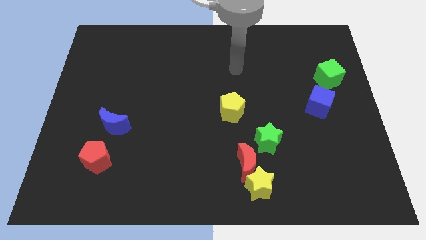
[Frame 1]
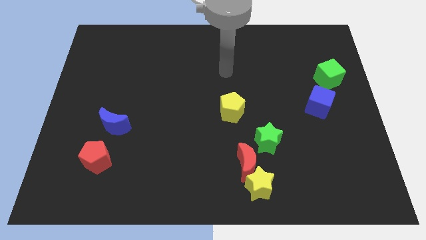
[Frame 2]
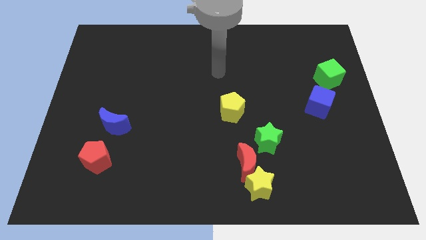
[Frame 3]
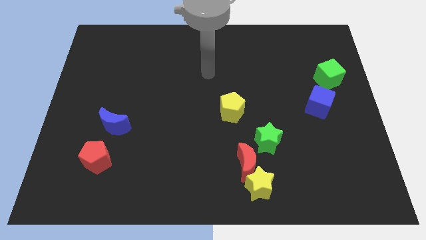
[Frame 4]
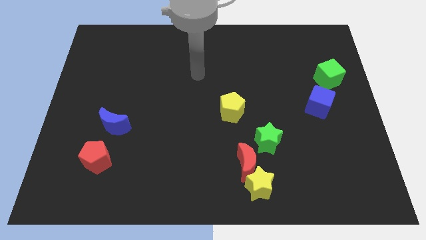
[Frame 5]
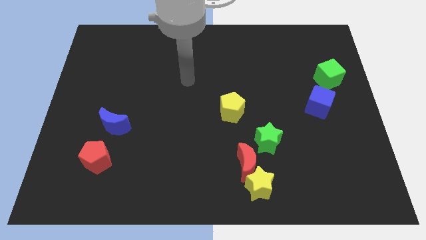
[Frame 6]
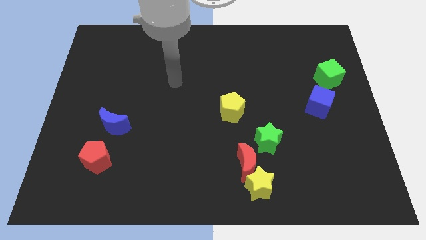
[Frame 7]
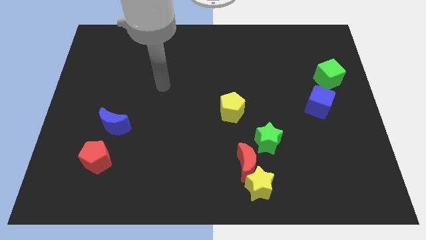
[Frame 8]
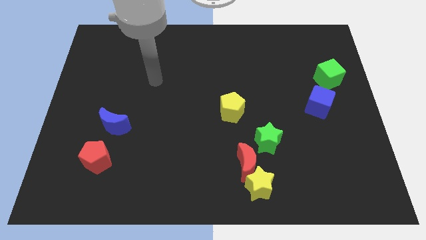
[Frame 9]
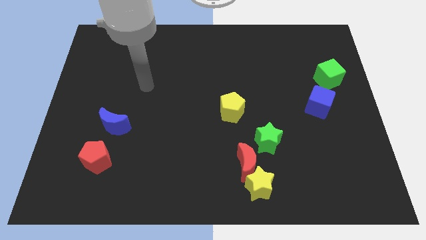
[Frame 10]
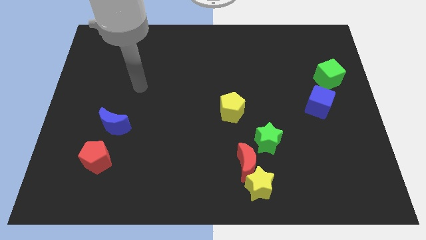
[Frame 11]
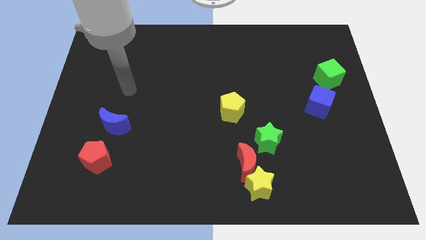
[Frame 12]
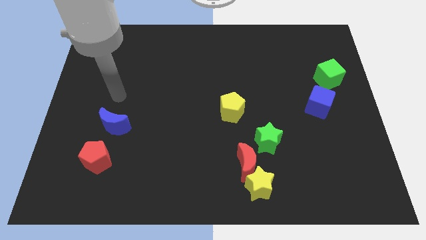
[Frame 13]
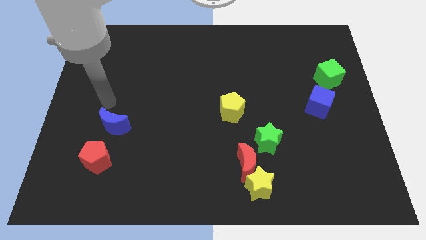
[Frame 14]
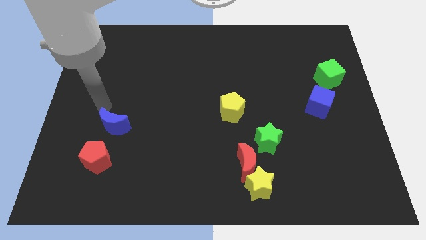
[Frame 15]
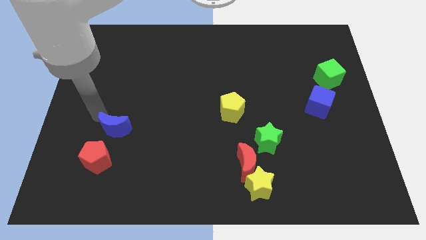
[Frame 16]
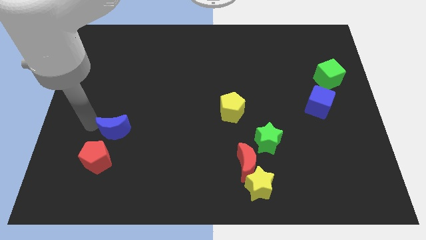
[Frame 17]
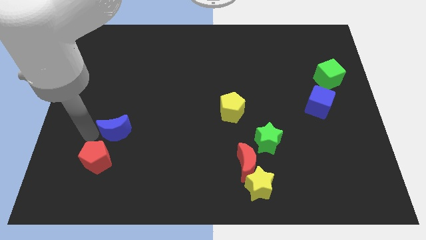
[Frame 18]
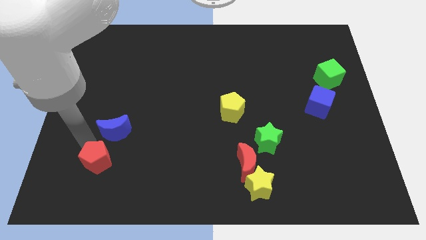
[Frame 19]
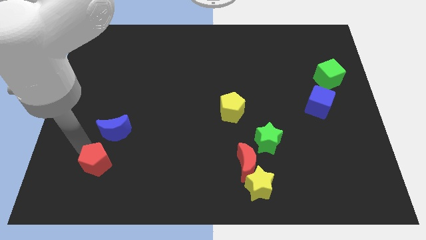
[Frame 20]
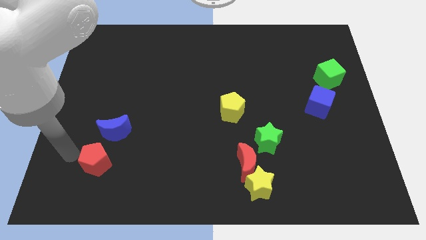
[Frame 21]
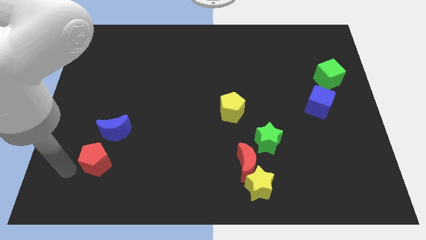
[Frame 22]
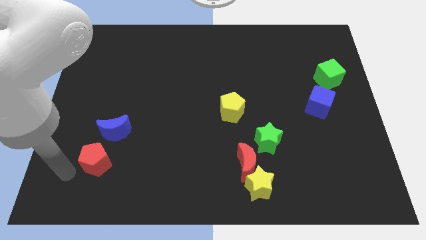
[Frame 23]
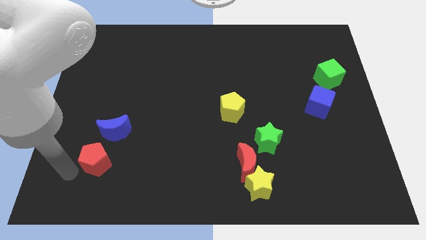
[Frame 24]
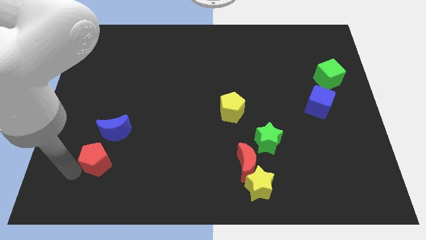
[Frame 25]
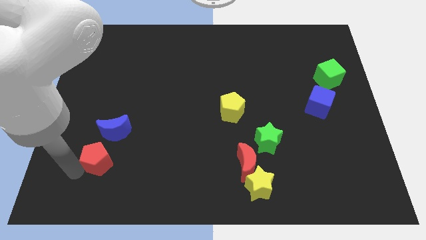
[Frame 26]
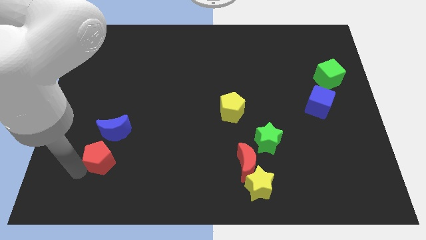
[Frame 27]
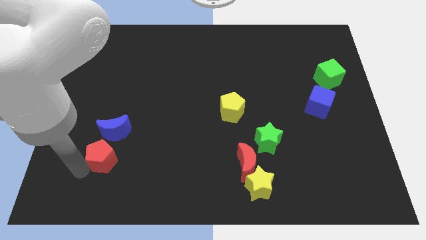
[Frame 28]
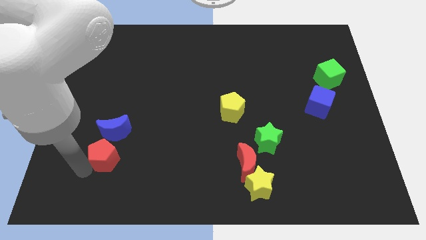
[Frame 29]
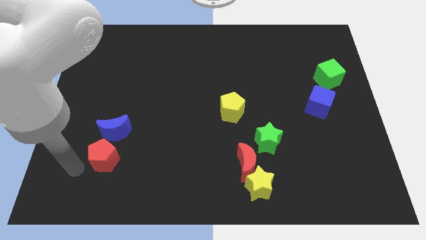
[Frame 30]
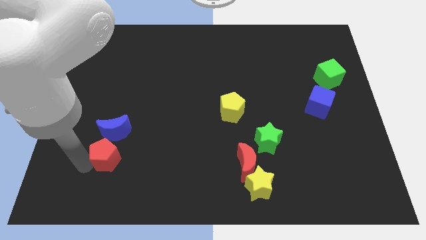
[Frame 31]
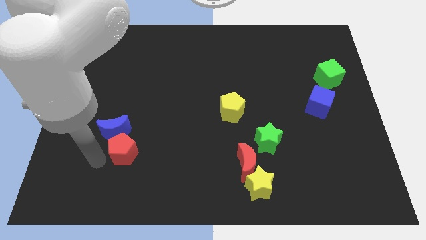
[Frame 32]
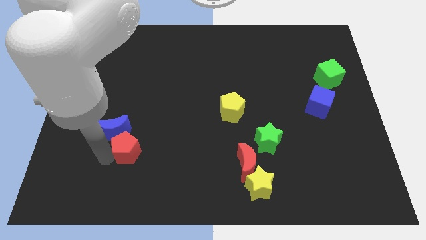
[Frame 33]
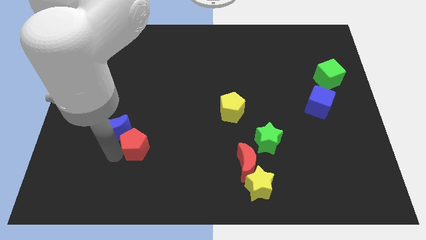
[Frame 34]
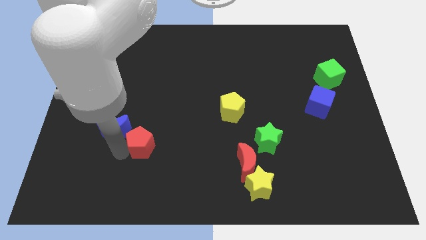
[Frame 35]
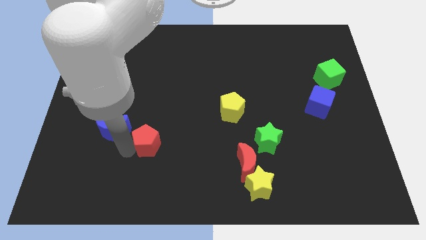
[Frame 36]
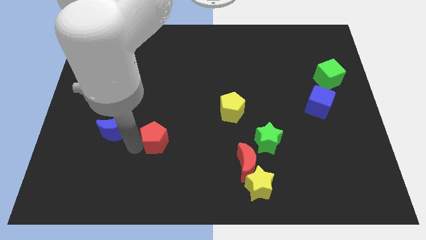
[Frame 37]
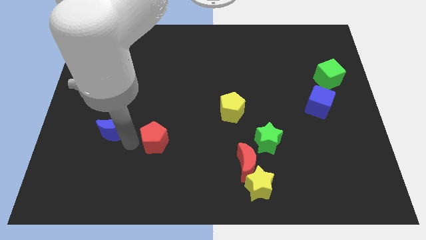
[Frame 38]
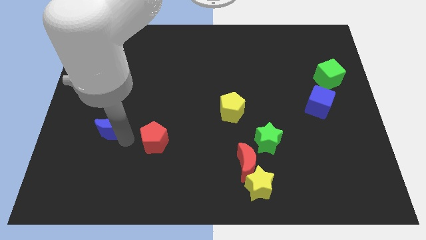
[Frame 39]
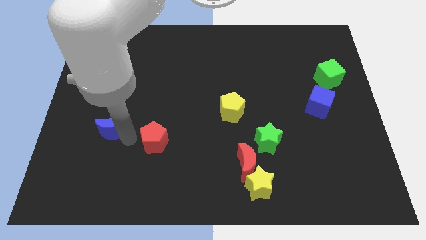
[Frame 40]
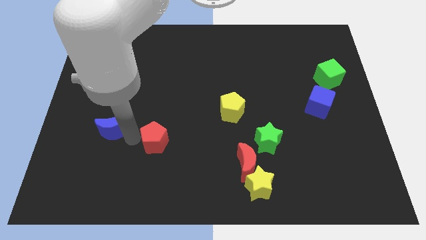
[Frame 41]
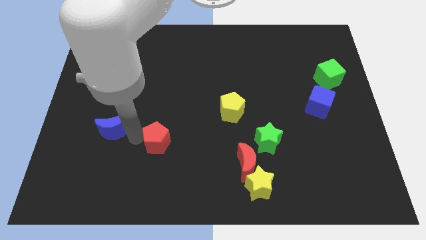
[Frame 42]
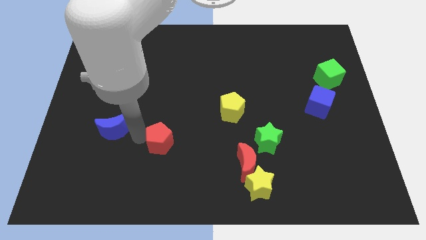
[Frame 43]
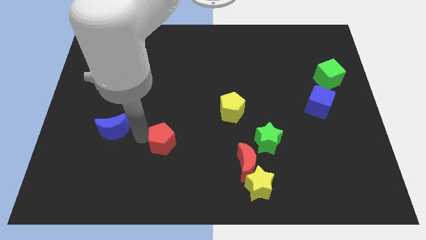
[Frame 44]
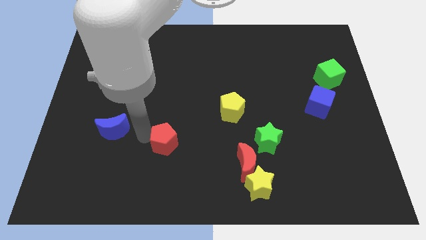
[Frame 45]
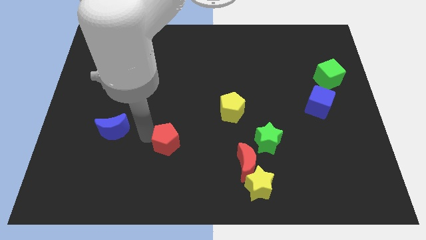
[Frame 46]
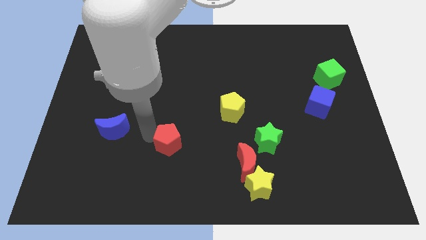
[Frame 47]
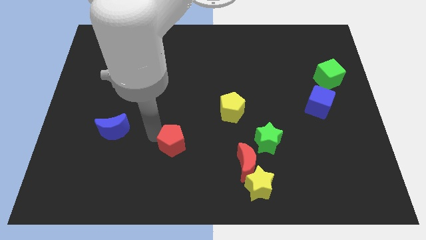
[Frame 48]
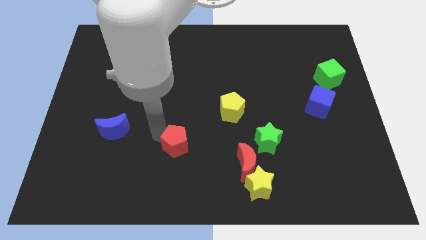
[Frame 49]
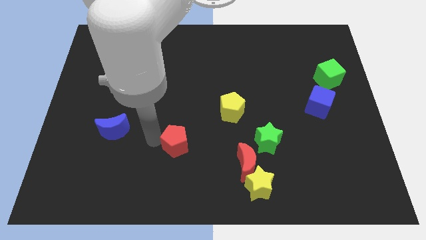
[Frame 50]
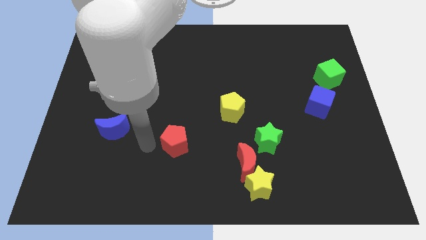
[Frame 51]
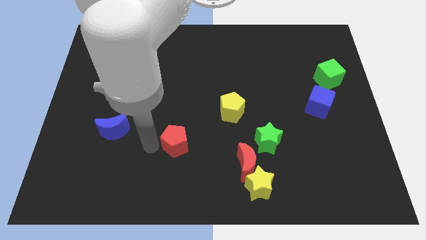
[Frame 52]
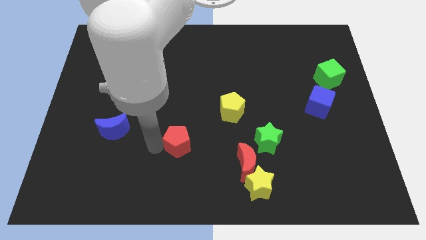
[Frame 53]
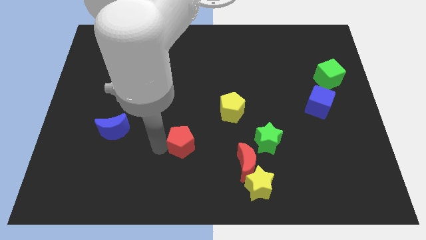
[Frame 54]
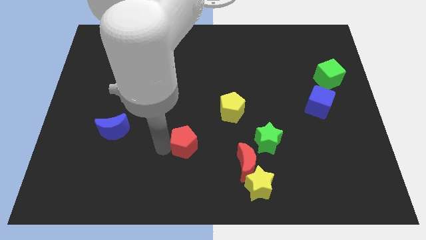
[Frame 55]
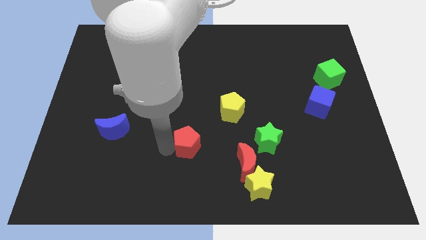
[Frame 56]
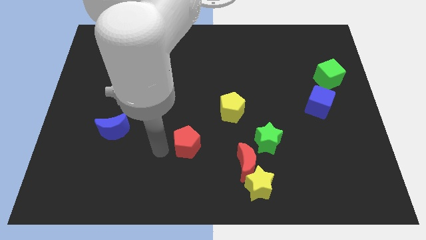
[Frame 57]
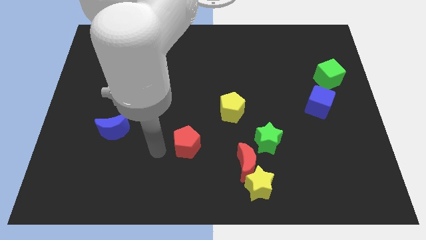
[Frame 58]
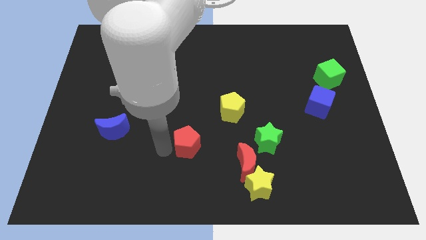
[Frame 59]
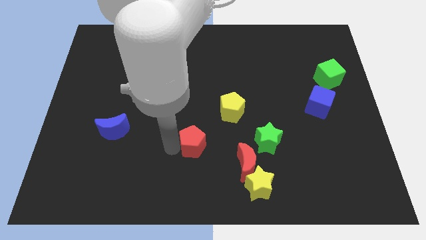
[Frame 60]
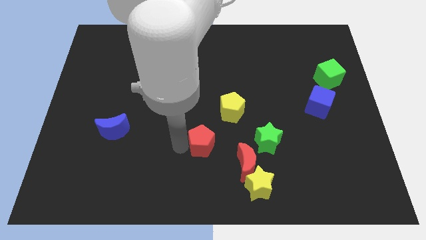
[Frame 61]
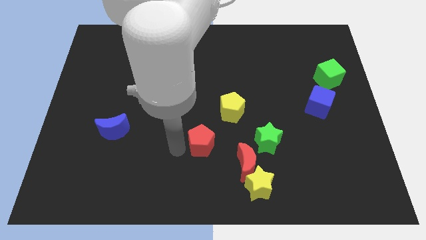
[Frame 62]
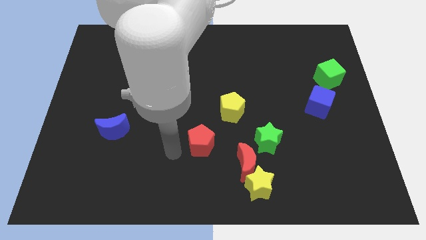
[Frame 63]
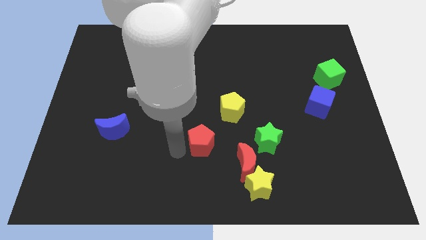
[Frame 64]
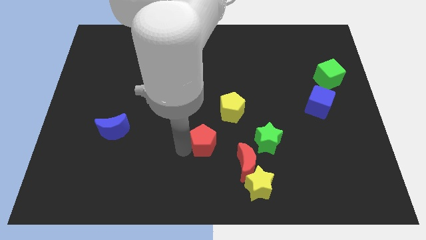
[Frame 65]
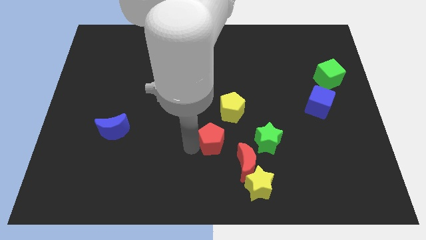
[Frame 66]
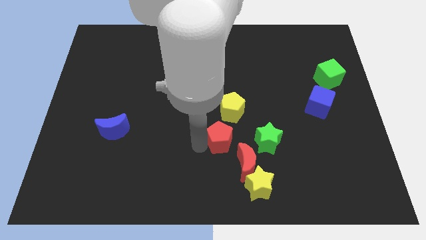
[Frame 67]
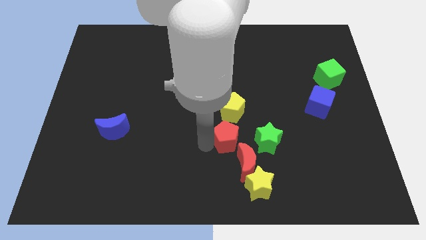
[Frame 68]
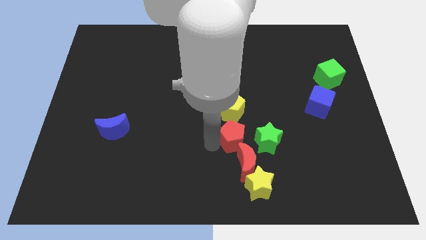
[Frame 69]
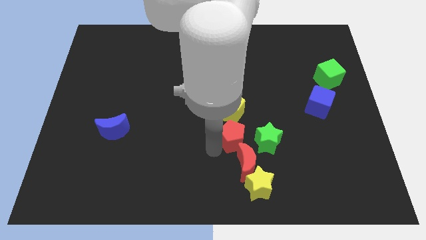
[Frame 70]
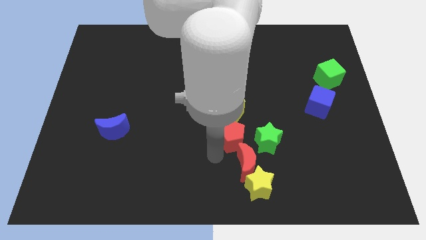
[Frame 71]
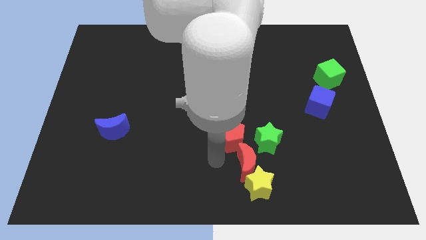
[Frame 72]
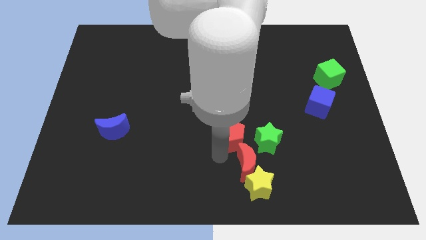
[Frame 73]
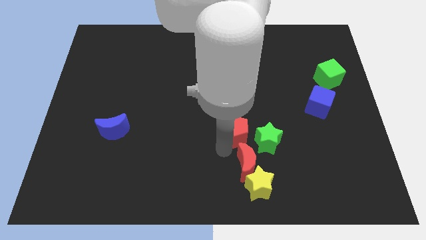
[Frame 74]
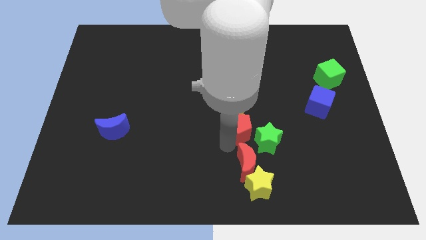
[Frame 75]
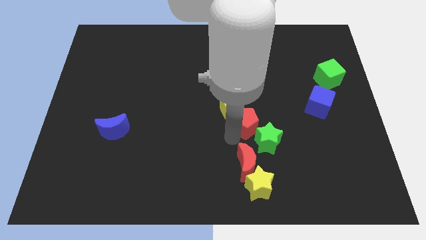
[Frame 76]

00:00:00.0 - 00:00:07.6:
put the red pentagon to the top of the green star
